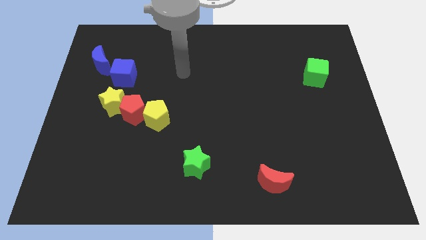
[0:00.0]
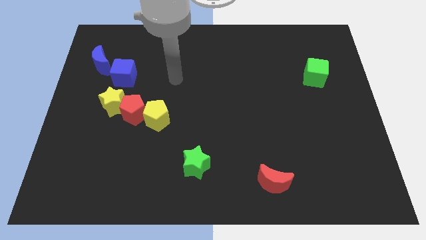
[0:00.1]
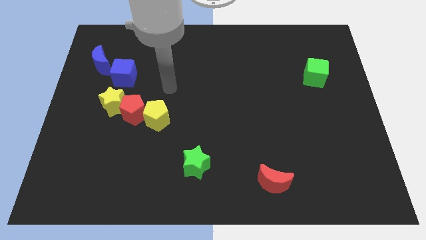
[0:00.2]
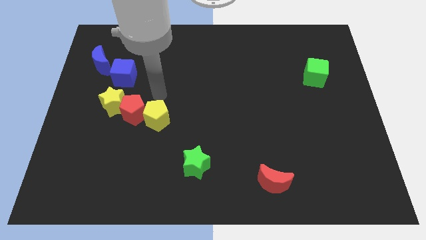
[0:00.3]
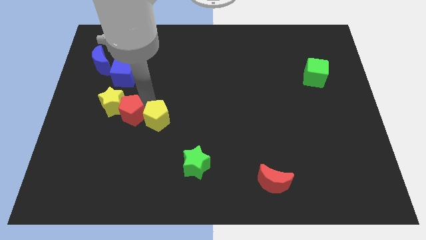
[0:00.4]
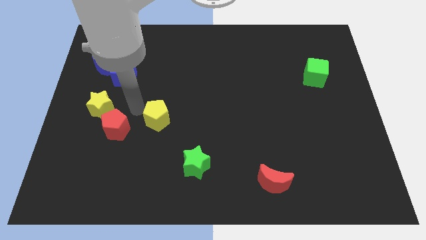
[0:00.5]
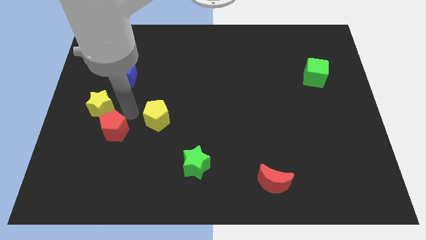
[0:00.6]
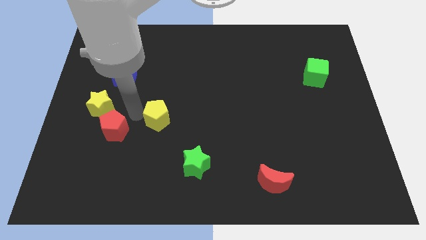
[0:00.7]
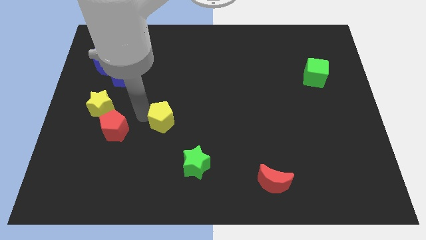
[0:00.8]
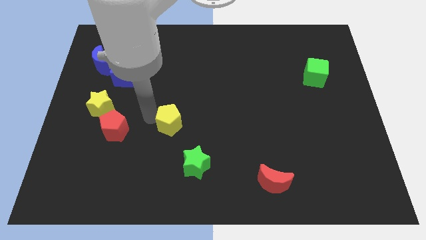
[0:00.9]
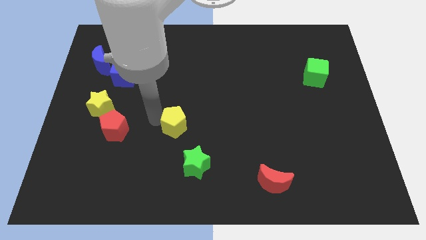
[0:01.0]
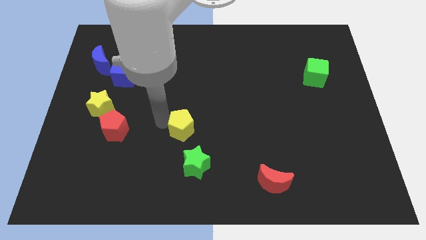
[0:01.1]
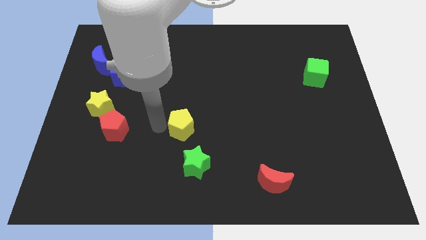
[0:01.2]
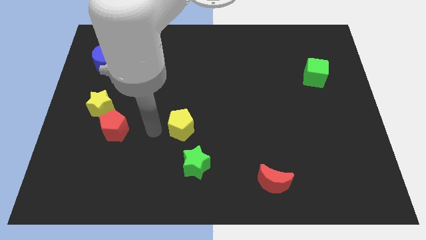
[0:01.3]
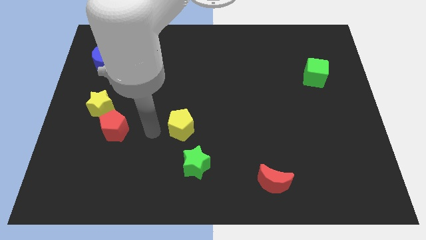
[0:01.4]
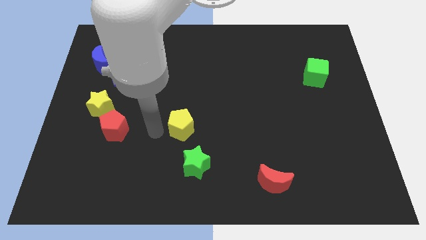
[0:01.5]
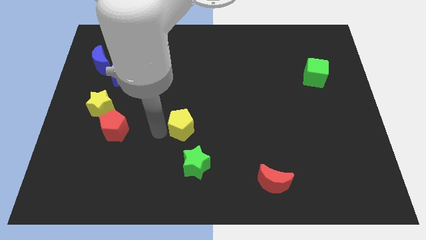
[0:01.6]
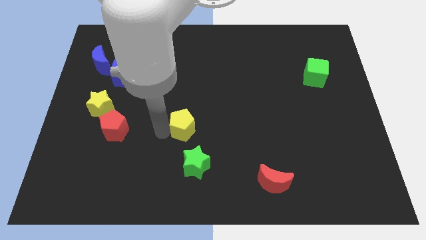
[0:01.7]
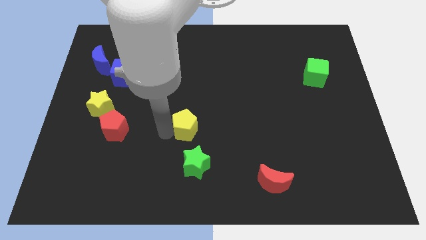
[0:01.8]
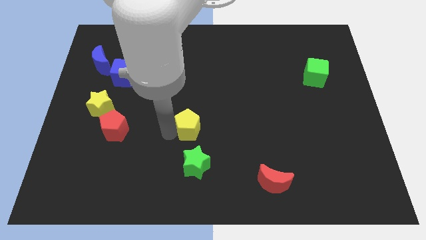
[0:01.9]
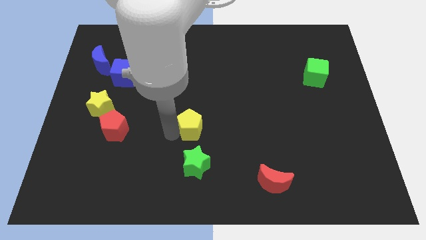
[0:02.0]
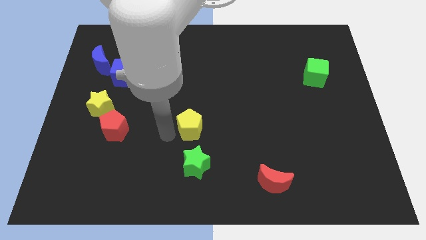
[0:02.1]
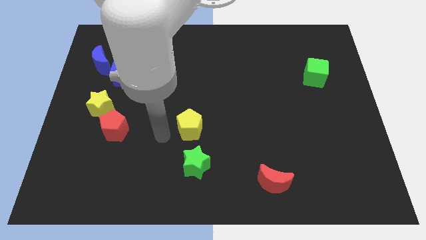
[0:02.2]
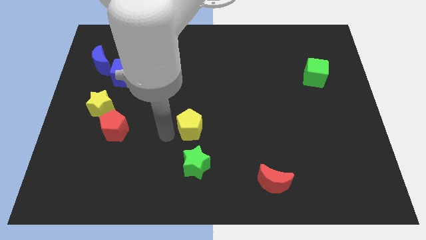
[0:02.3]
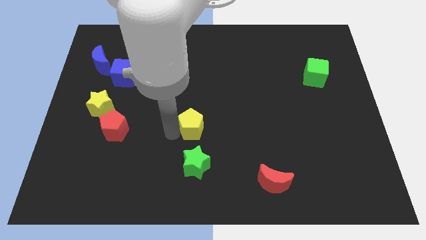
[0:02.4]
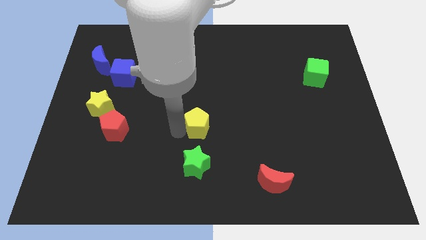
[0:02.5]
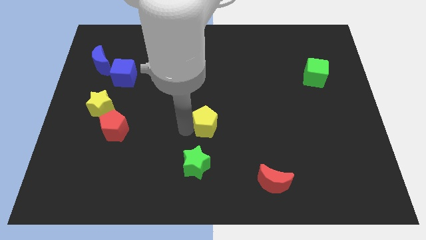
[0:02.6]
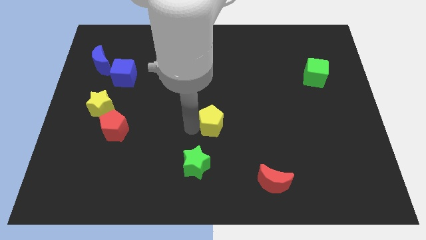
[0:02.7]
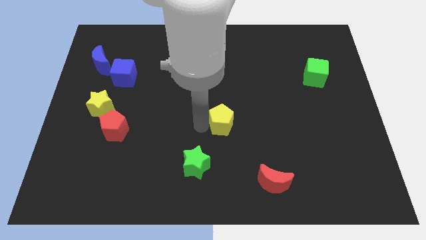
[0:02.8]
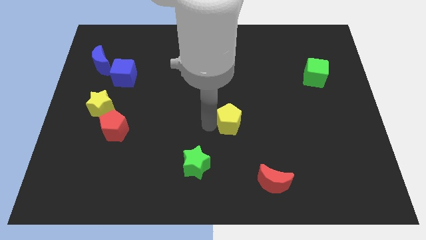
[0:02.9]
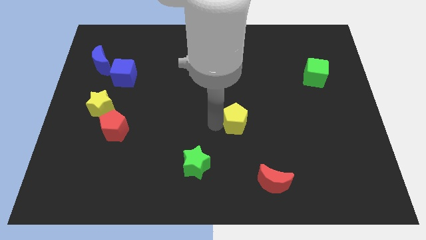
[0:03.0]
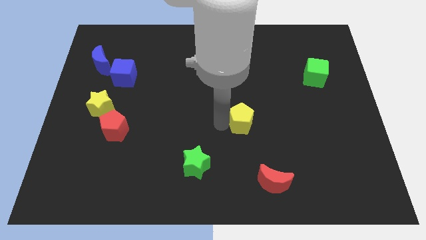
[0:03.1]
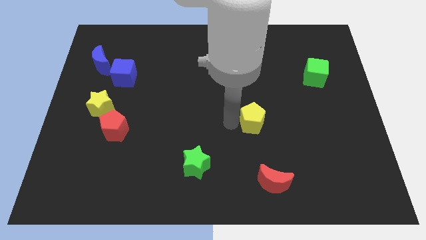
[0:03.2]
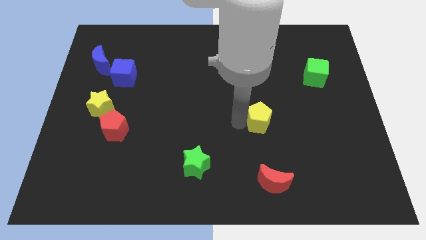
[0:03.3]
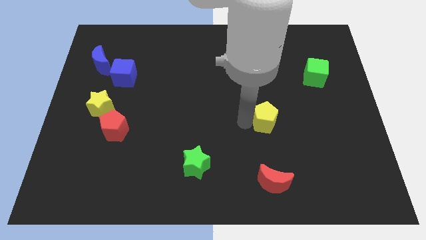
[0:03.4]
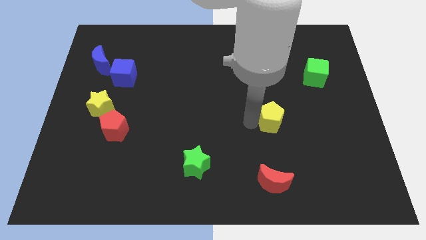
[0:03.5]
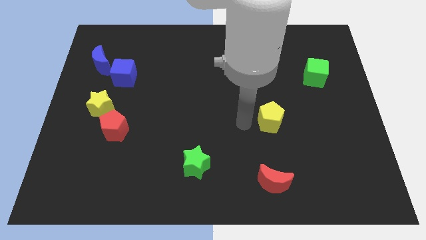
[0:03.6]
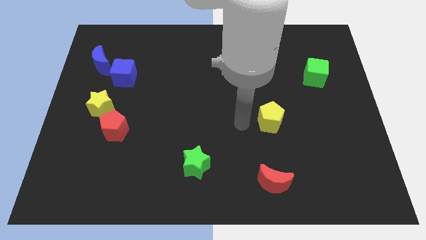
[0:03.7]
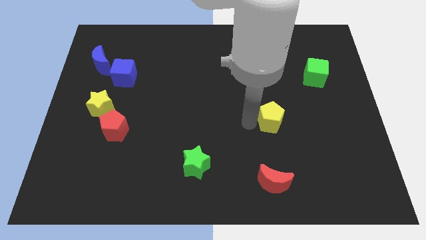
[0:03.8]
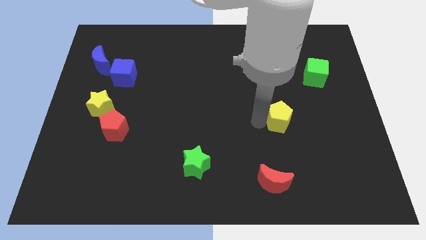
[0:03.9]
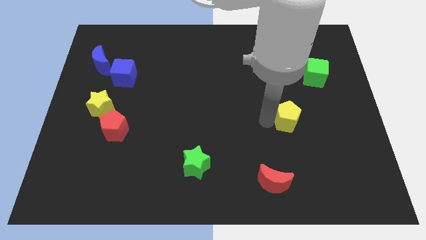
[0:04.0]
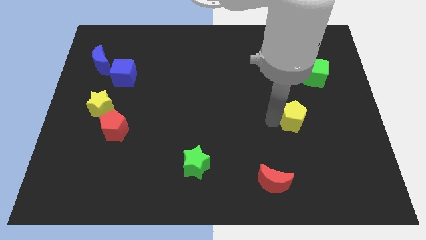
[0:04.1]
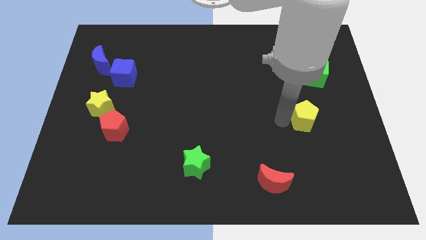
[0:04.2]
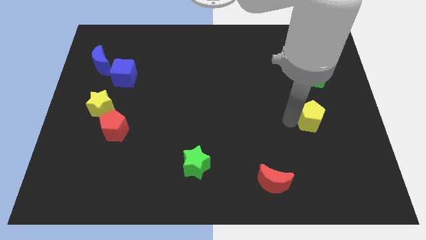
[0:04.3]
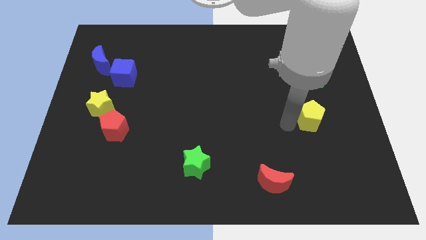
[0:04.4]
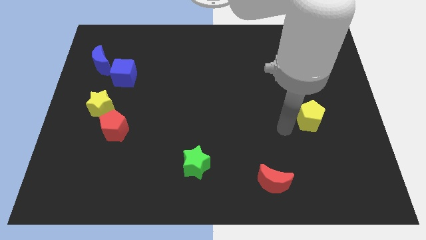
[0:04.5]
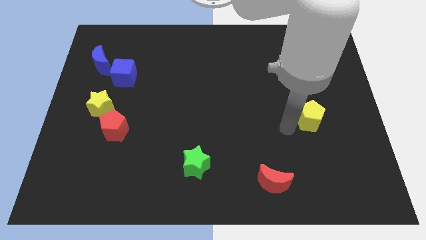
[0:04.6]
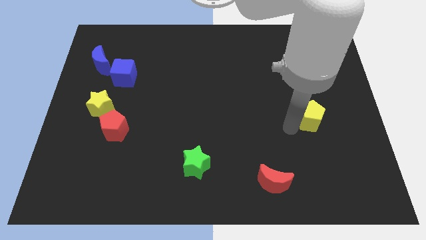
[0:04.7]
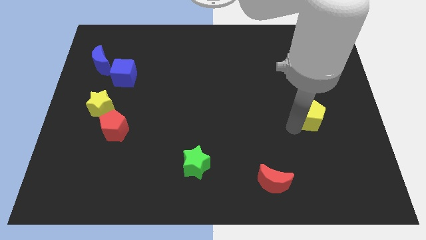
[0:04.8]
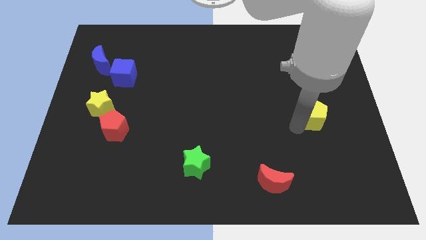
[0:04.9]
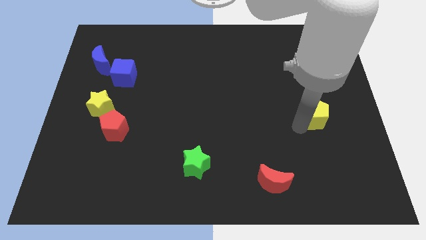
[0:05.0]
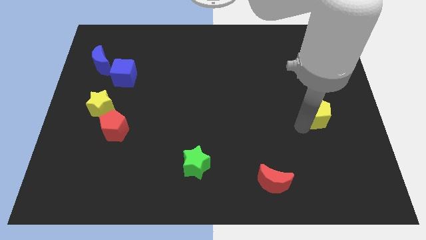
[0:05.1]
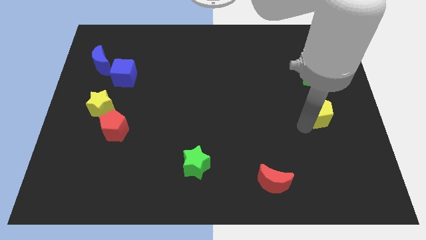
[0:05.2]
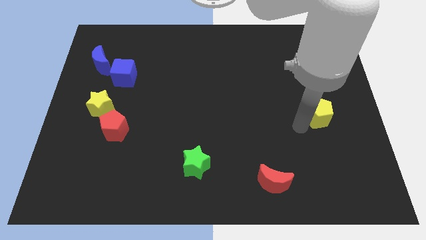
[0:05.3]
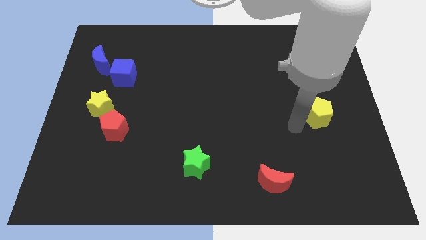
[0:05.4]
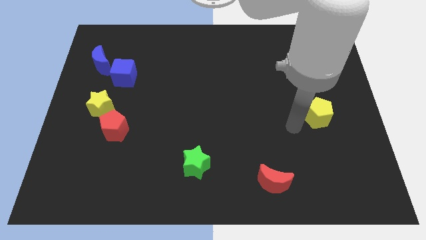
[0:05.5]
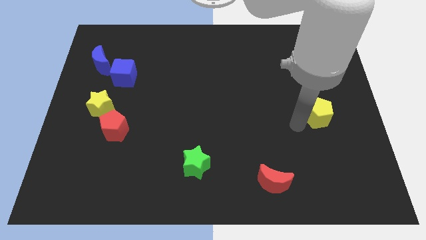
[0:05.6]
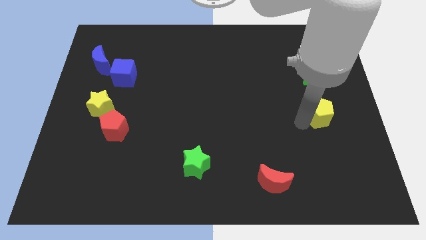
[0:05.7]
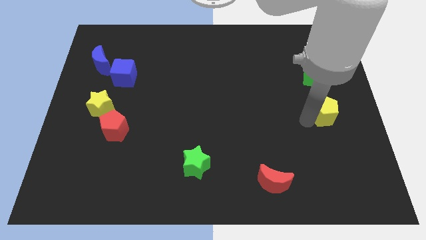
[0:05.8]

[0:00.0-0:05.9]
move the yellow pentagon to the right side of the board
